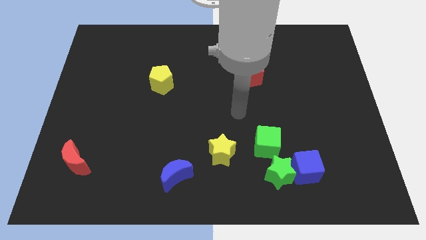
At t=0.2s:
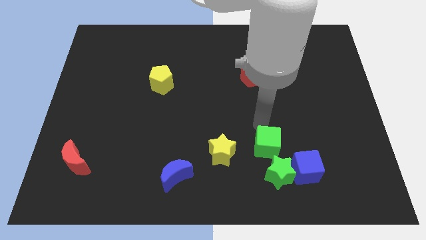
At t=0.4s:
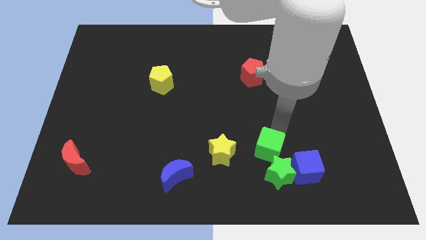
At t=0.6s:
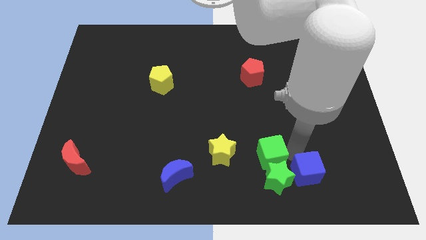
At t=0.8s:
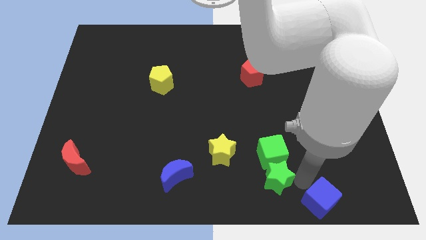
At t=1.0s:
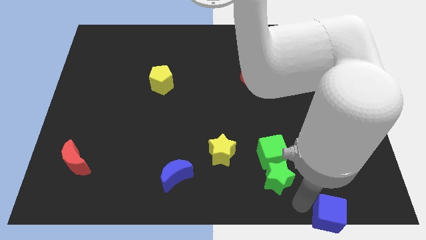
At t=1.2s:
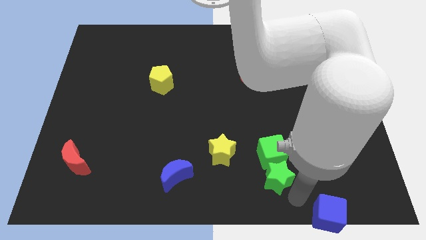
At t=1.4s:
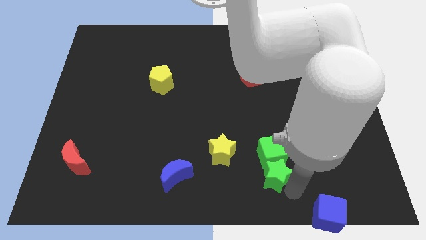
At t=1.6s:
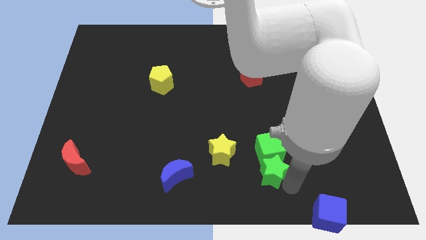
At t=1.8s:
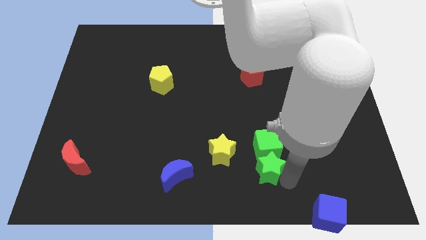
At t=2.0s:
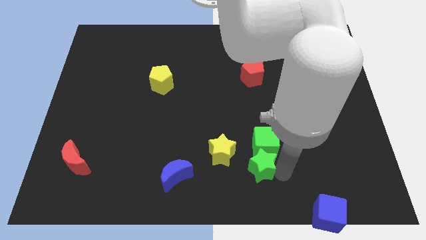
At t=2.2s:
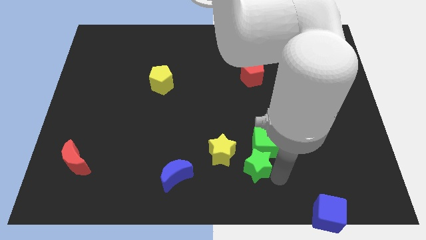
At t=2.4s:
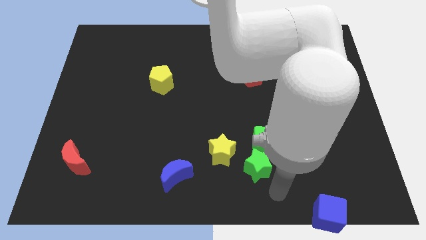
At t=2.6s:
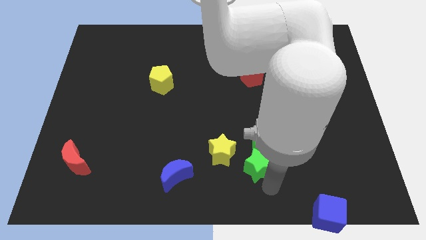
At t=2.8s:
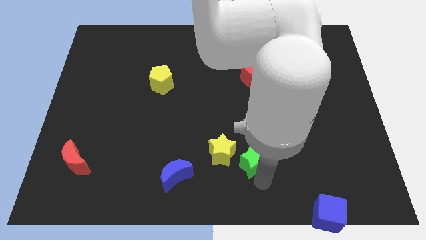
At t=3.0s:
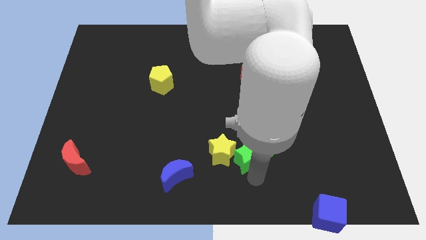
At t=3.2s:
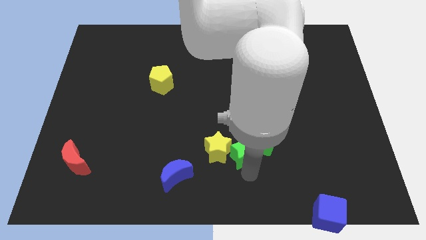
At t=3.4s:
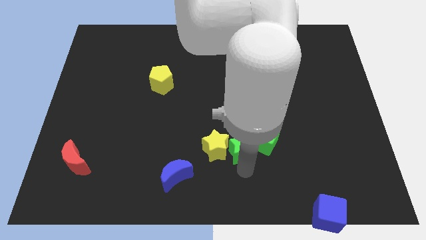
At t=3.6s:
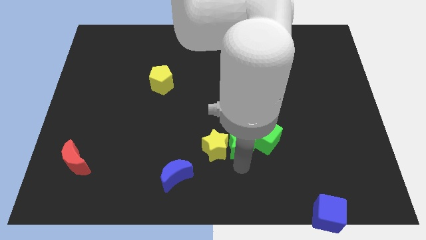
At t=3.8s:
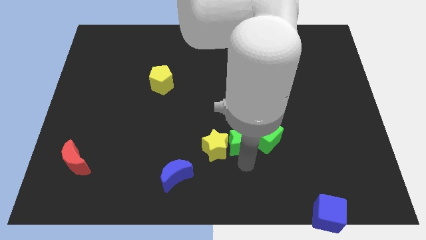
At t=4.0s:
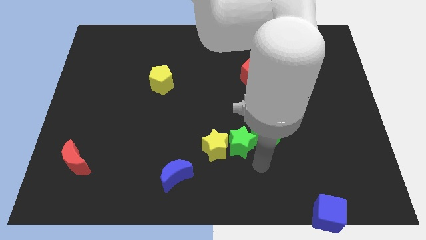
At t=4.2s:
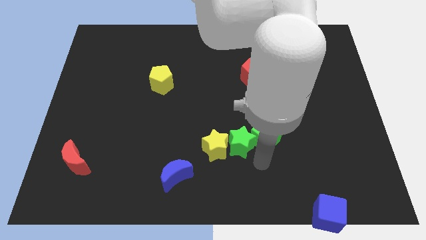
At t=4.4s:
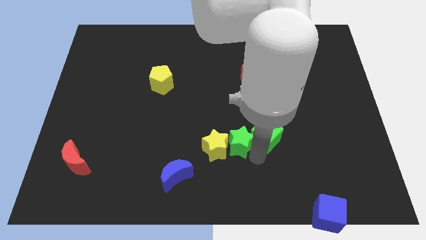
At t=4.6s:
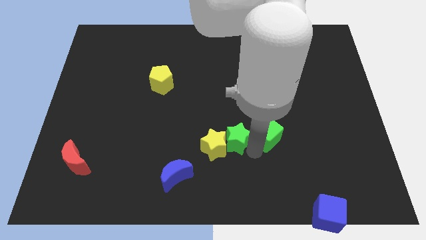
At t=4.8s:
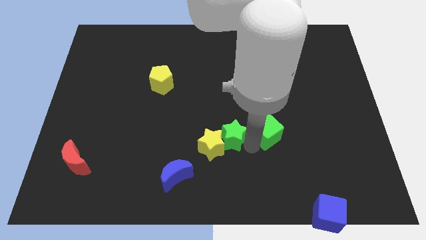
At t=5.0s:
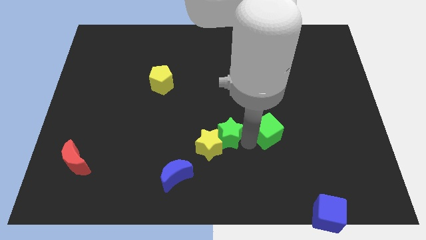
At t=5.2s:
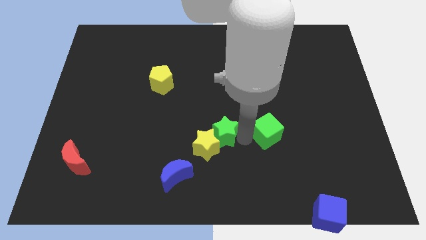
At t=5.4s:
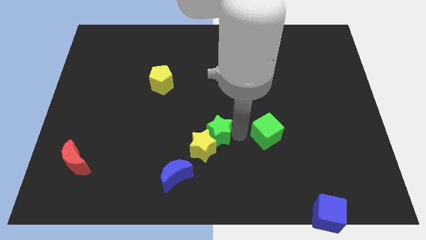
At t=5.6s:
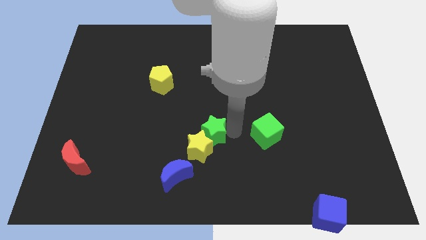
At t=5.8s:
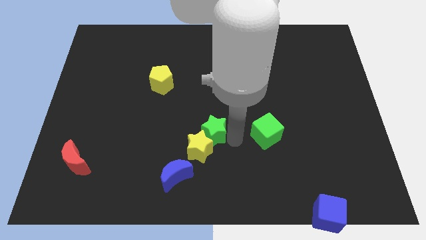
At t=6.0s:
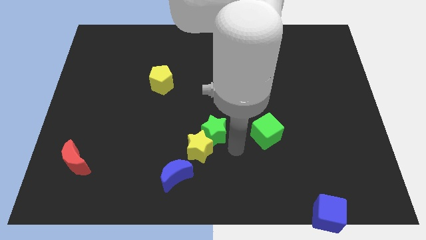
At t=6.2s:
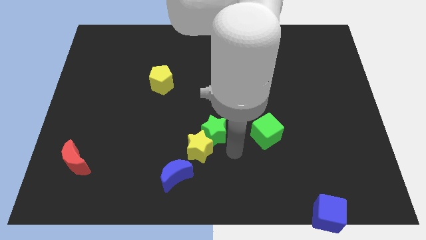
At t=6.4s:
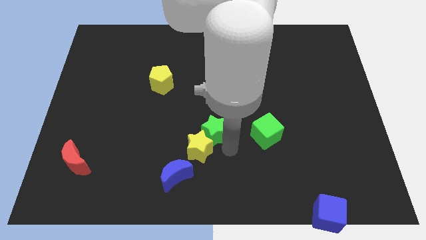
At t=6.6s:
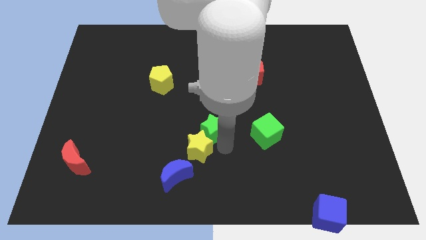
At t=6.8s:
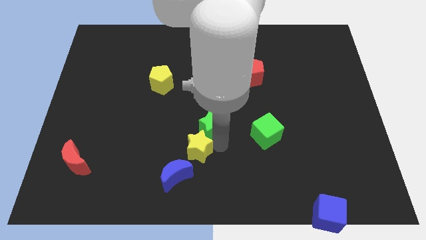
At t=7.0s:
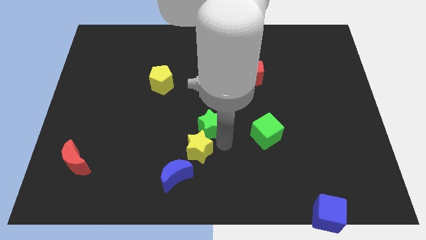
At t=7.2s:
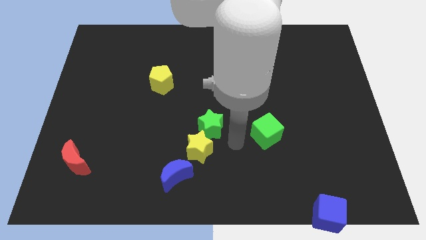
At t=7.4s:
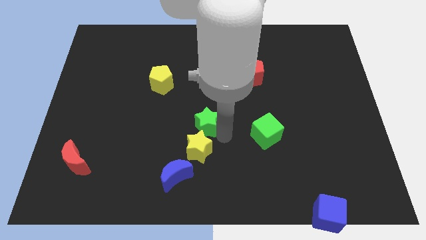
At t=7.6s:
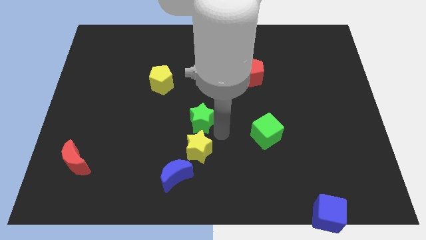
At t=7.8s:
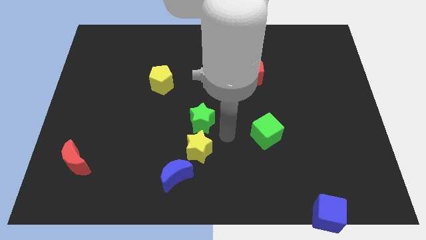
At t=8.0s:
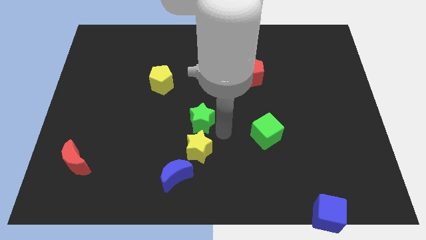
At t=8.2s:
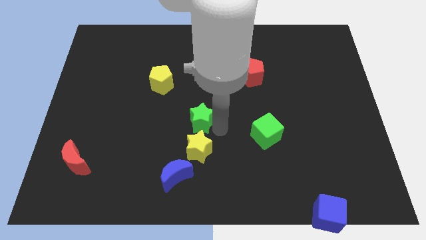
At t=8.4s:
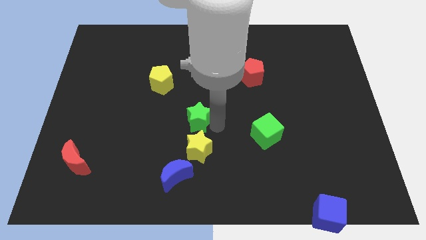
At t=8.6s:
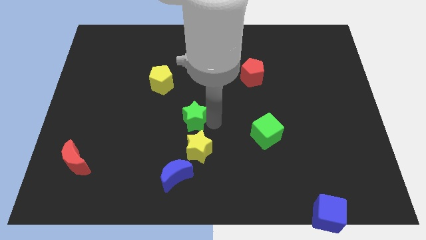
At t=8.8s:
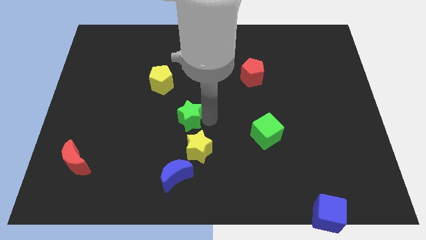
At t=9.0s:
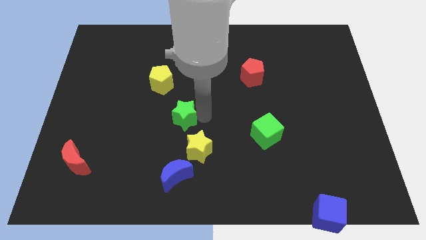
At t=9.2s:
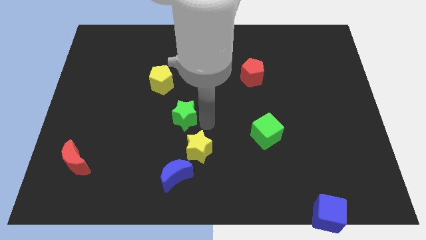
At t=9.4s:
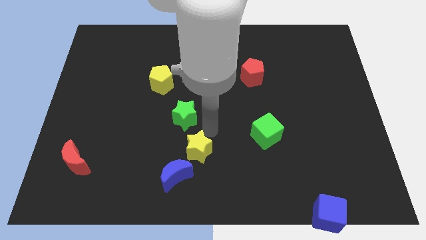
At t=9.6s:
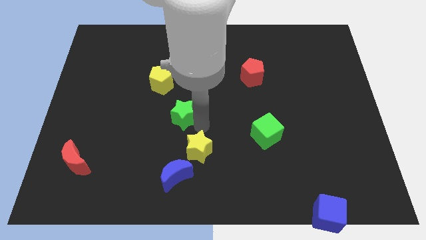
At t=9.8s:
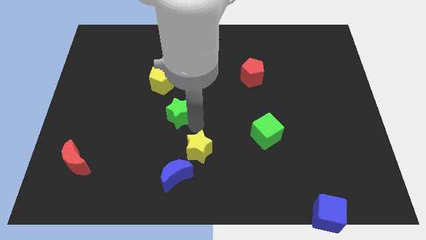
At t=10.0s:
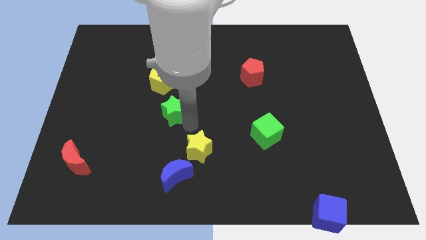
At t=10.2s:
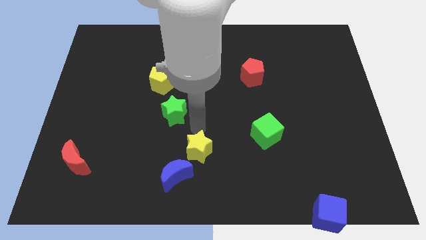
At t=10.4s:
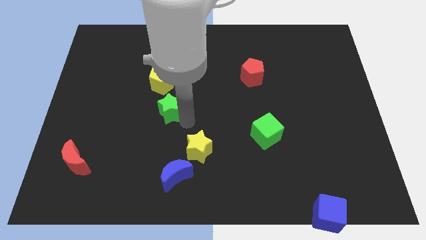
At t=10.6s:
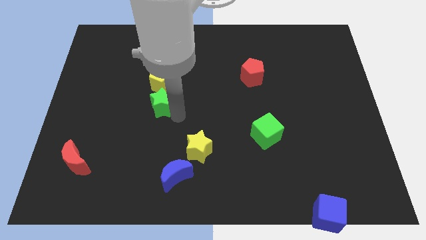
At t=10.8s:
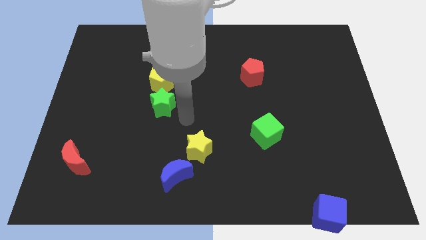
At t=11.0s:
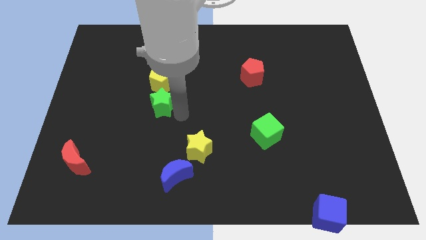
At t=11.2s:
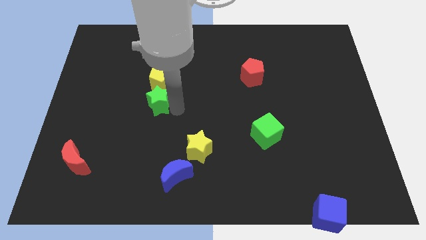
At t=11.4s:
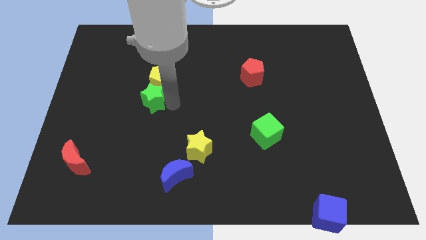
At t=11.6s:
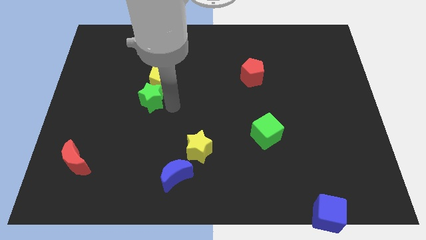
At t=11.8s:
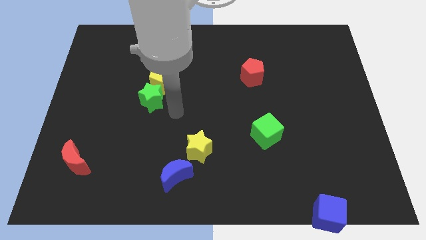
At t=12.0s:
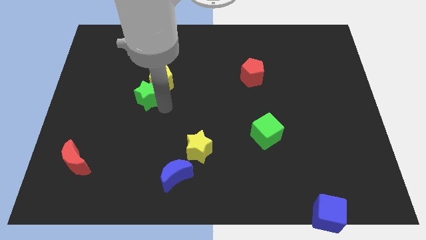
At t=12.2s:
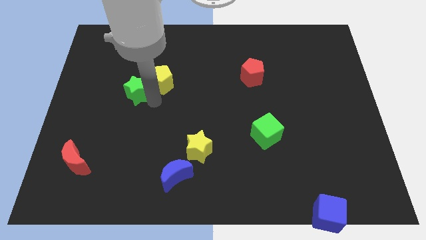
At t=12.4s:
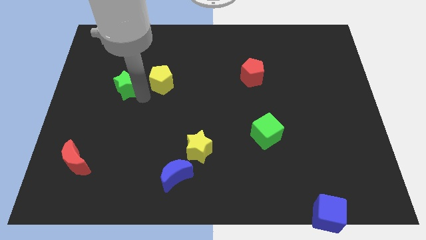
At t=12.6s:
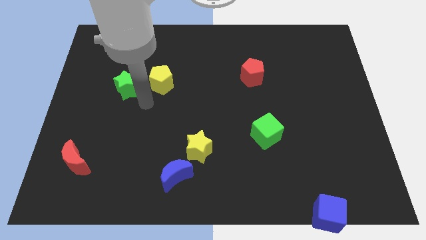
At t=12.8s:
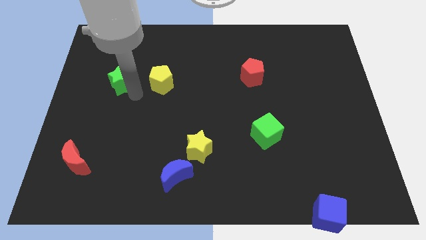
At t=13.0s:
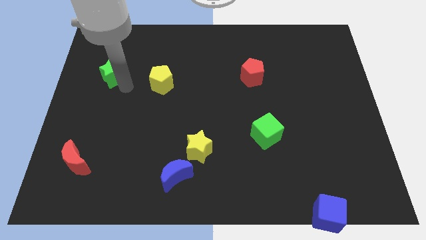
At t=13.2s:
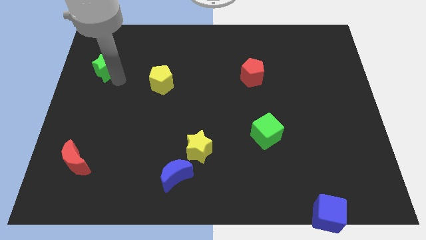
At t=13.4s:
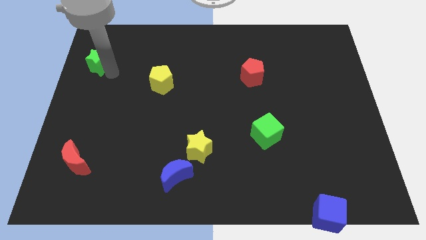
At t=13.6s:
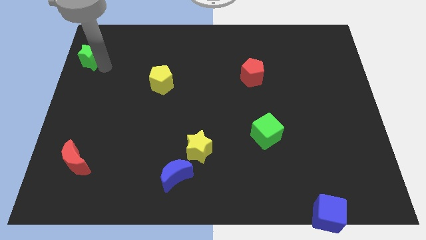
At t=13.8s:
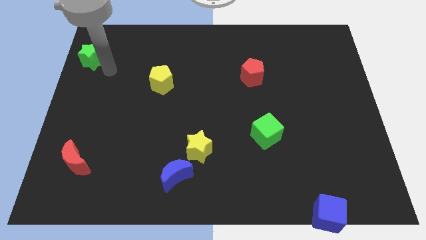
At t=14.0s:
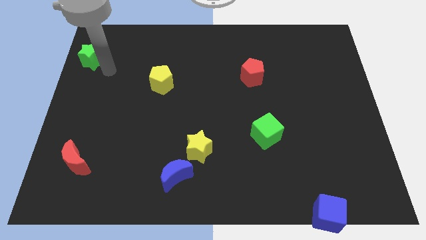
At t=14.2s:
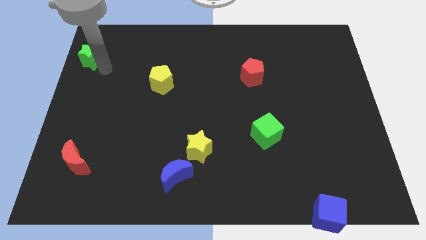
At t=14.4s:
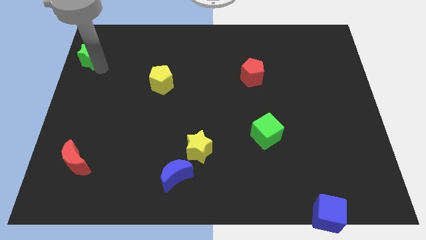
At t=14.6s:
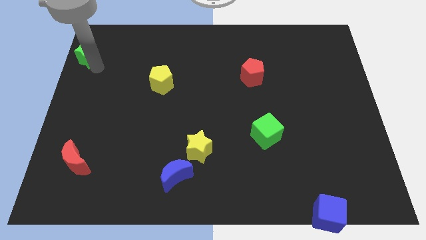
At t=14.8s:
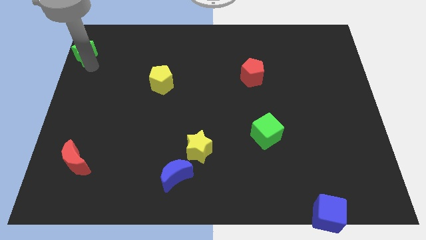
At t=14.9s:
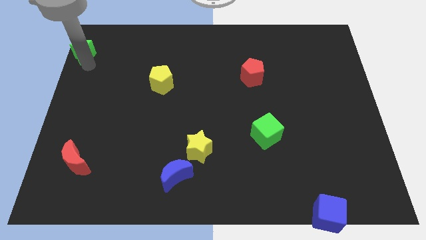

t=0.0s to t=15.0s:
put the green star to the upper left corner

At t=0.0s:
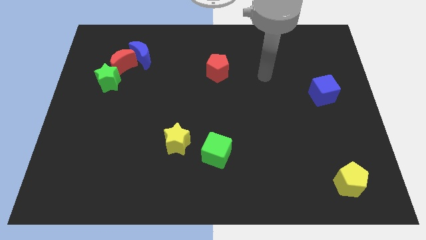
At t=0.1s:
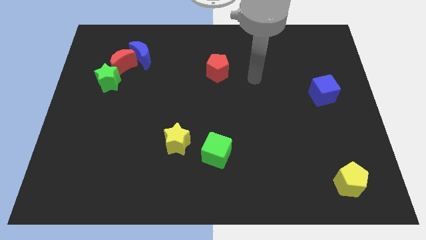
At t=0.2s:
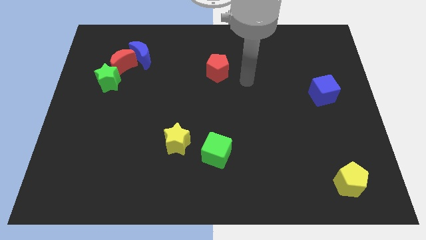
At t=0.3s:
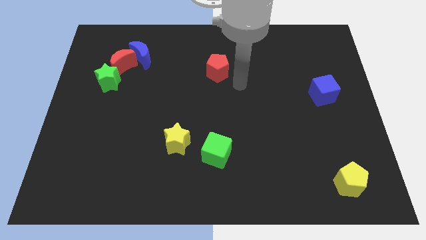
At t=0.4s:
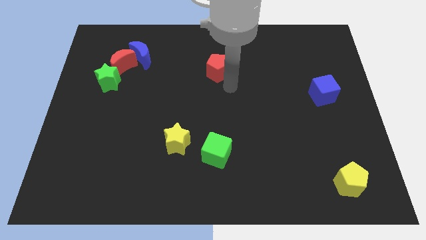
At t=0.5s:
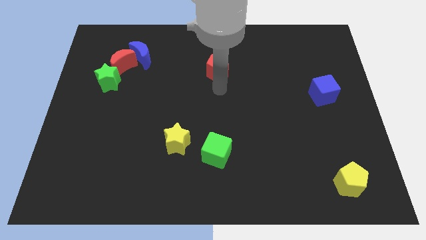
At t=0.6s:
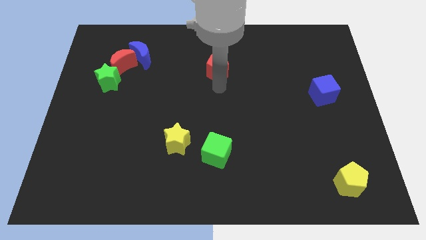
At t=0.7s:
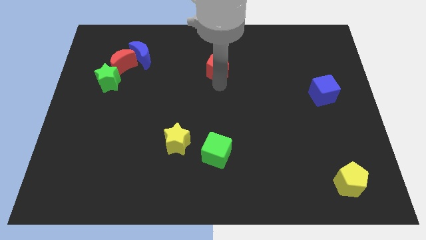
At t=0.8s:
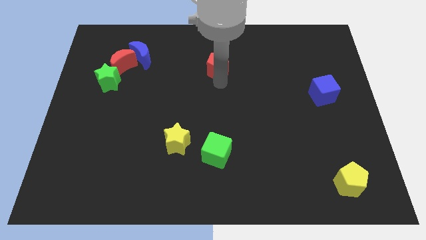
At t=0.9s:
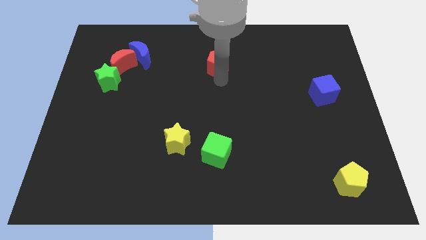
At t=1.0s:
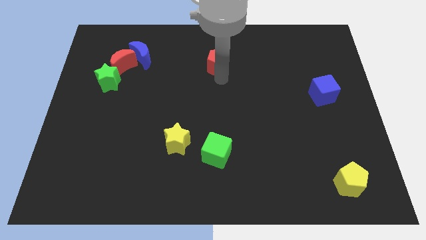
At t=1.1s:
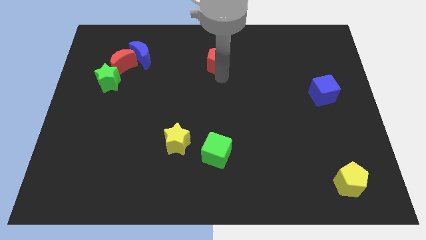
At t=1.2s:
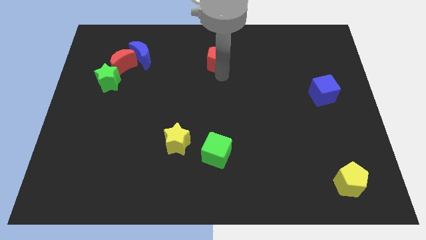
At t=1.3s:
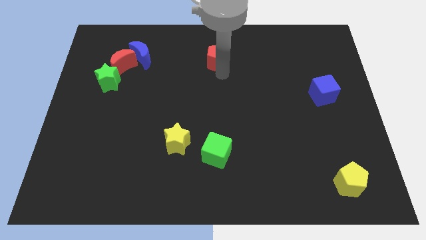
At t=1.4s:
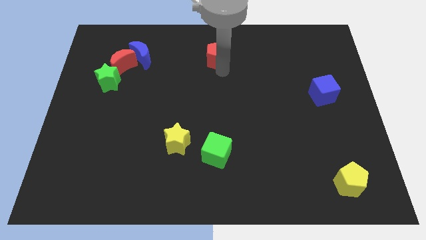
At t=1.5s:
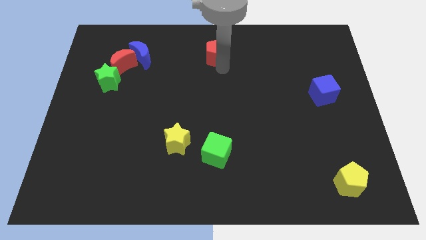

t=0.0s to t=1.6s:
move the red pentagon to the top side
